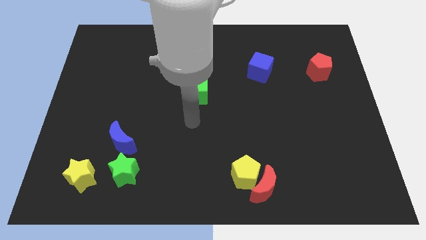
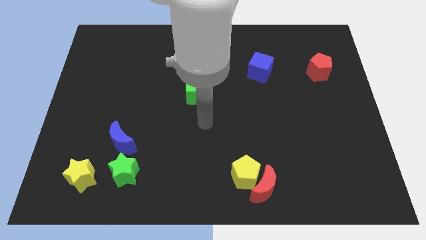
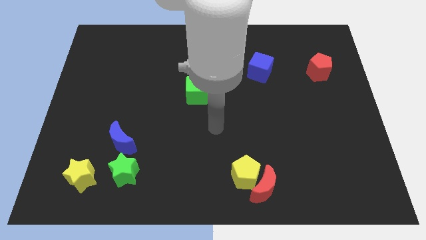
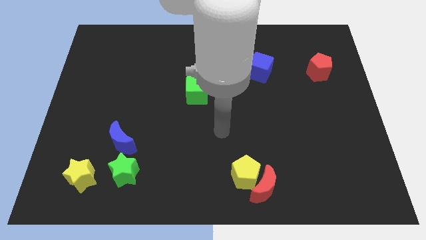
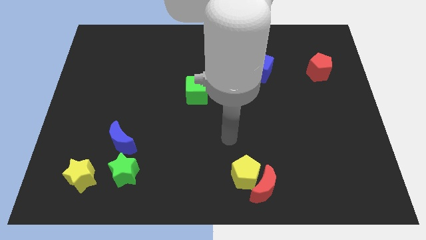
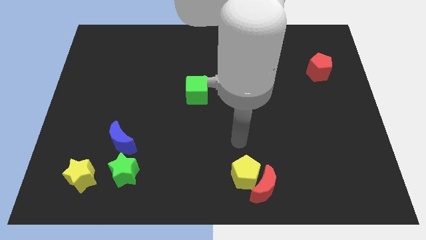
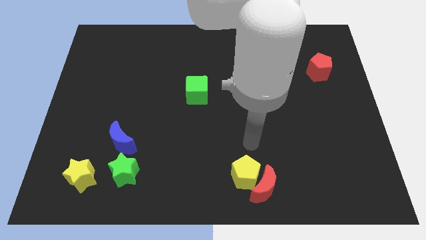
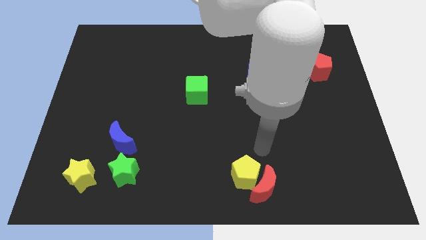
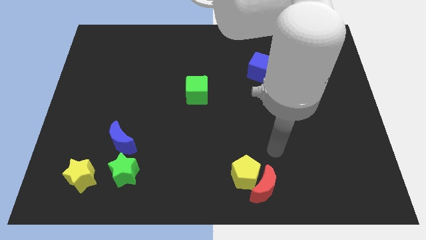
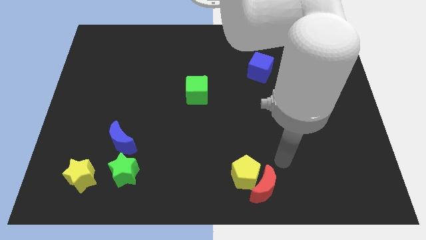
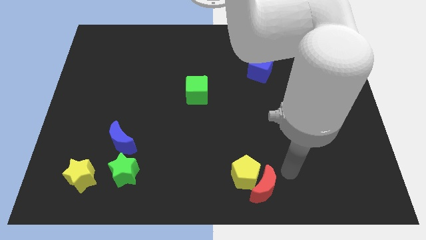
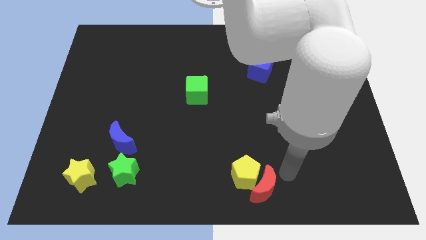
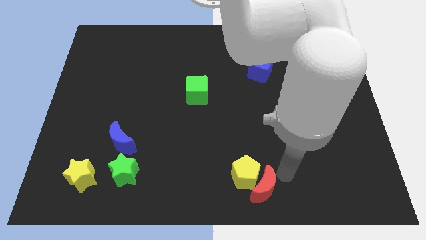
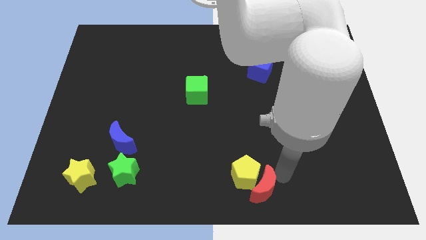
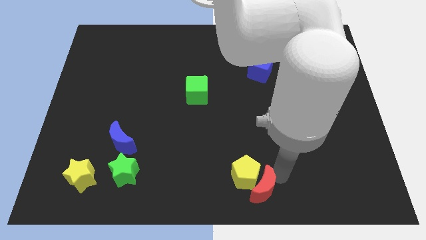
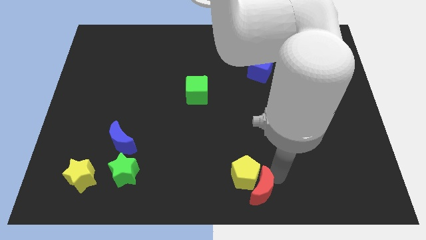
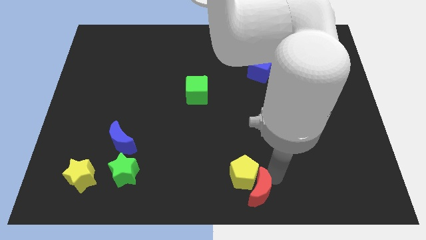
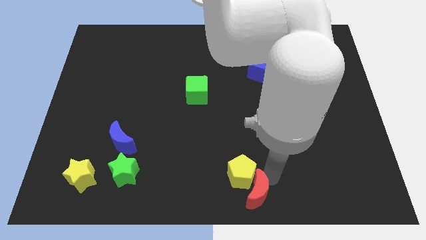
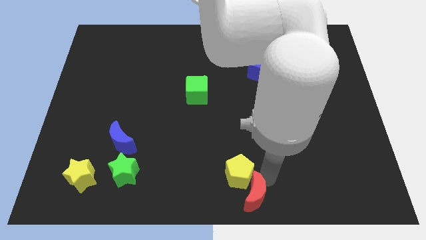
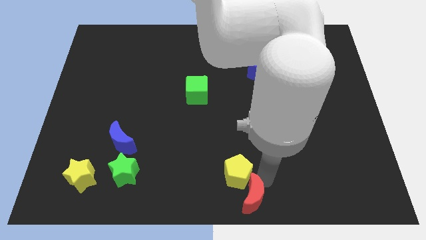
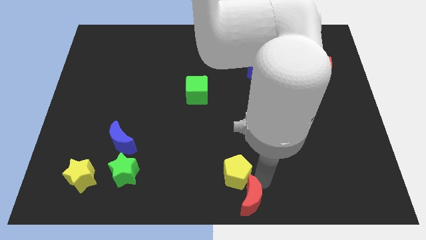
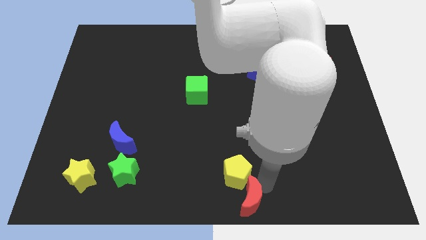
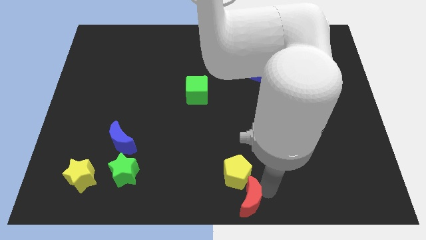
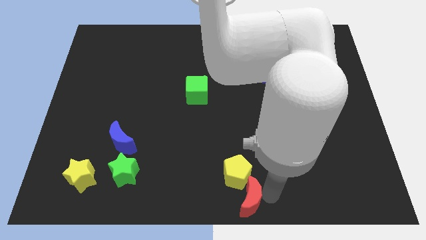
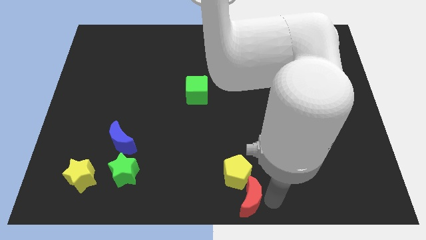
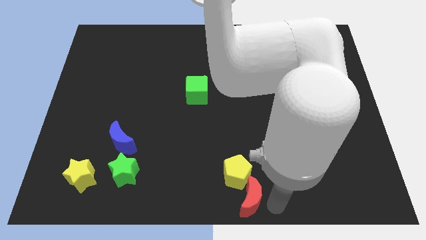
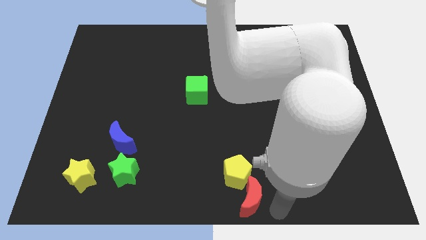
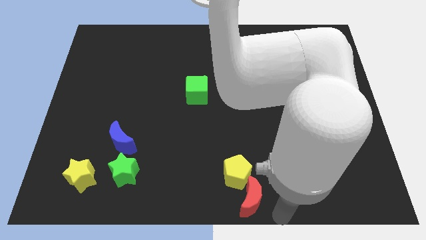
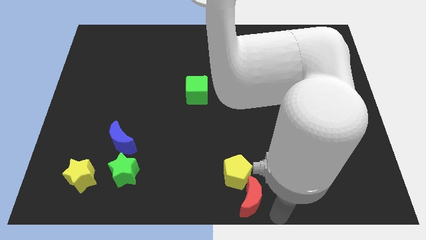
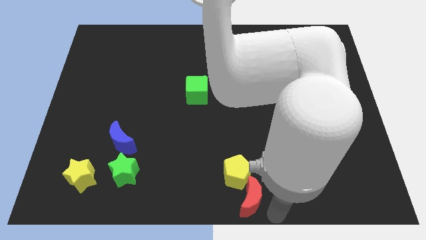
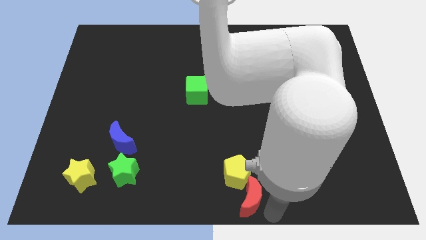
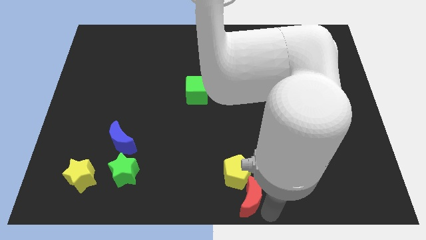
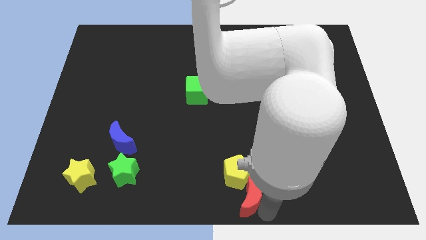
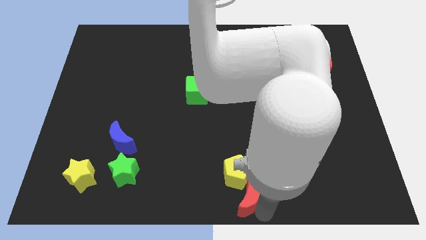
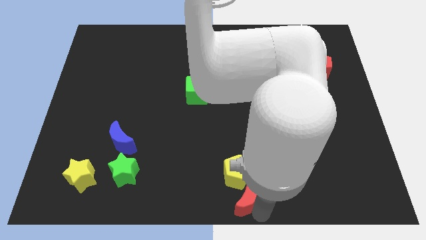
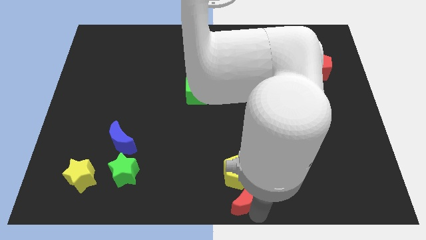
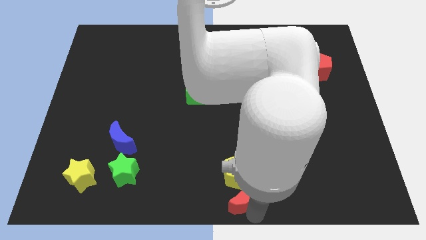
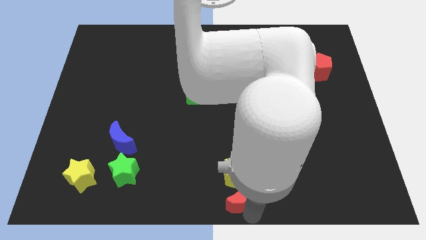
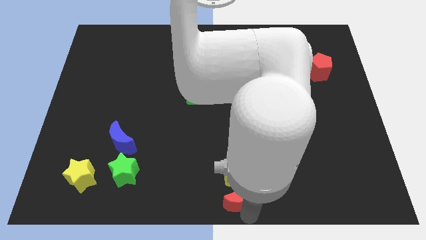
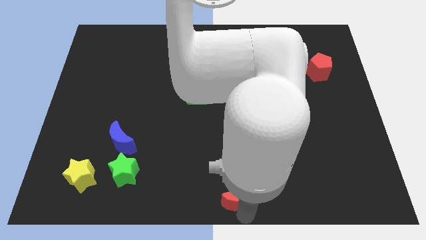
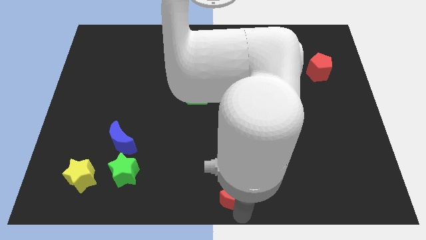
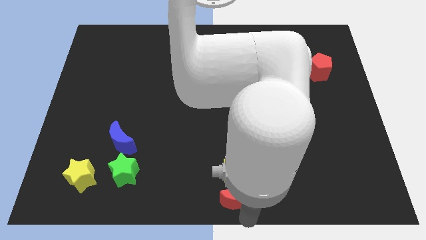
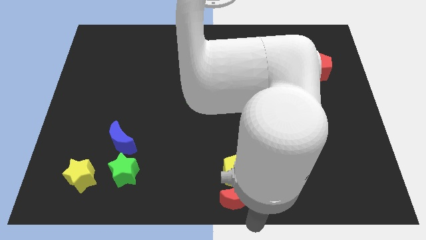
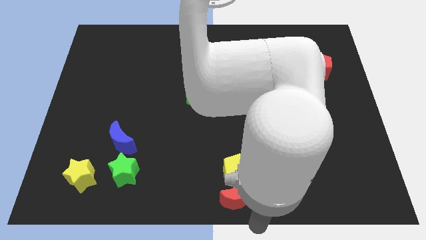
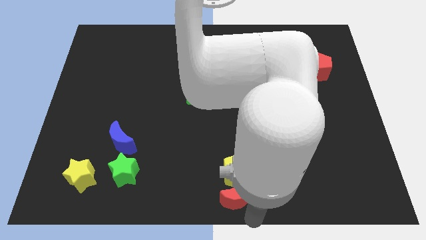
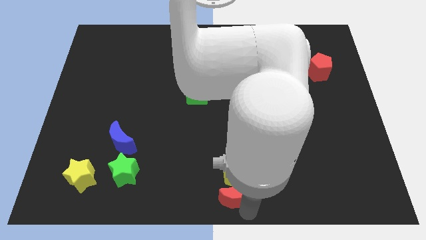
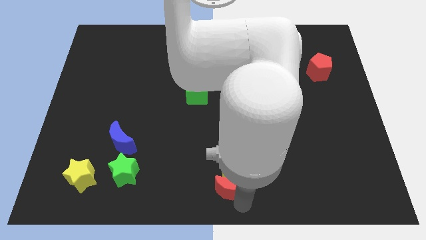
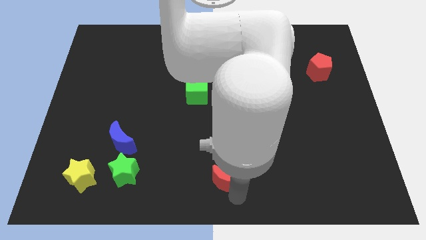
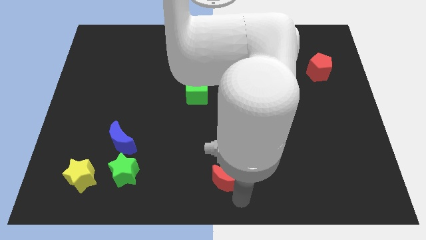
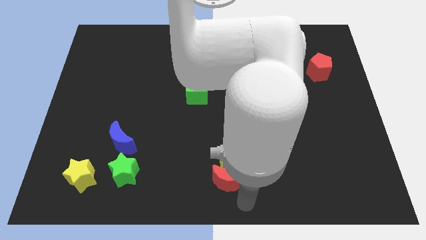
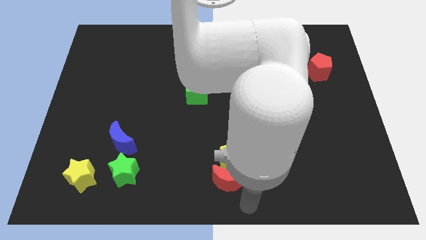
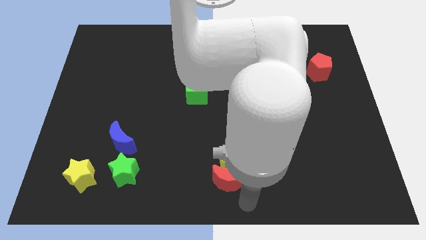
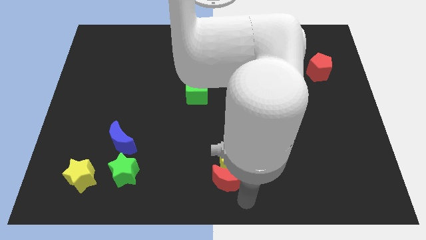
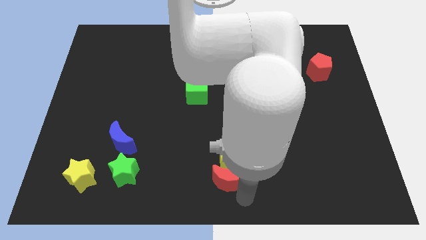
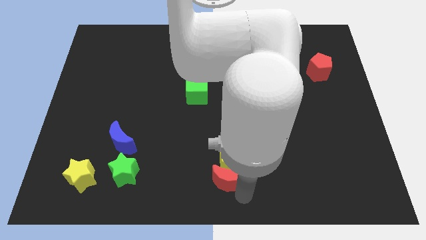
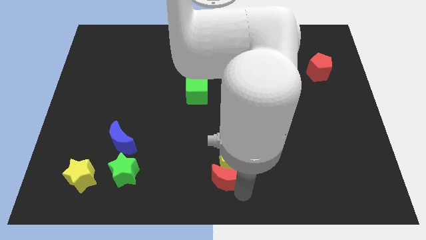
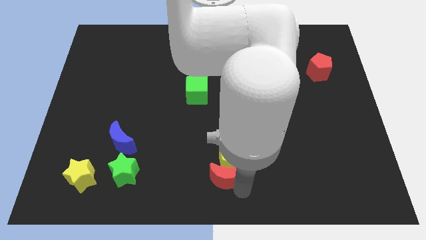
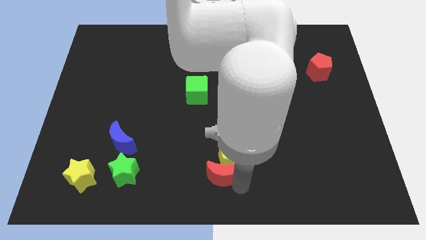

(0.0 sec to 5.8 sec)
slide the red moon upwards and left diagonally slightly

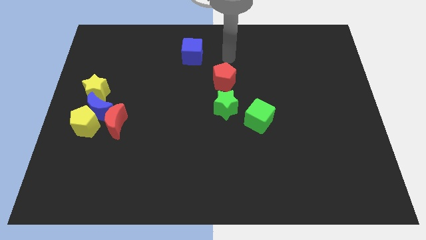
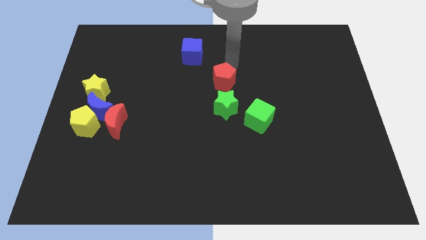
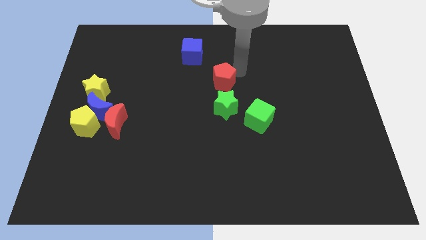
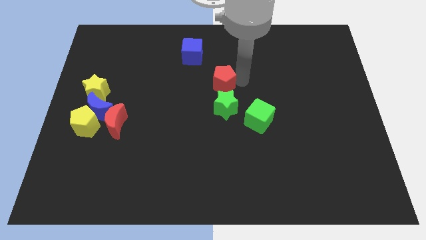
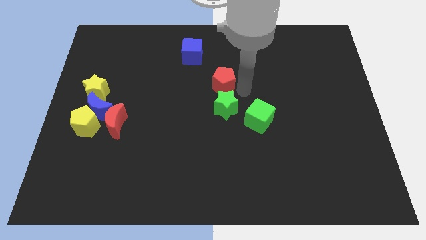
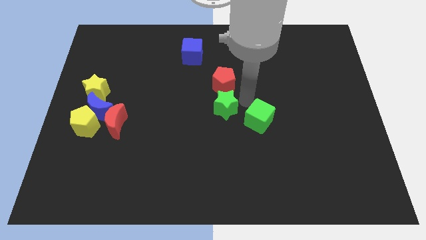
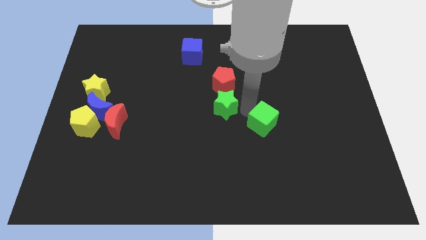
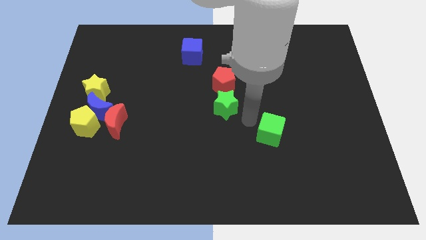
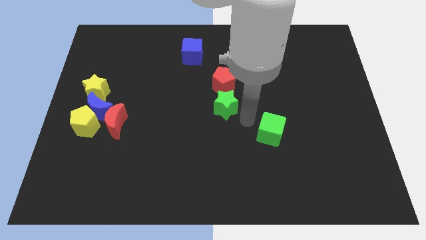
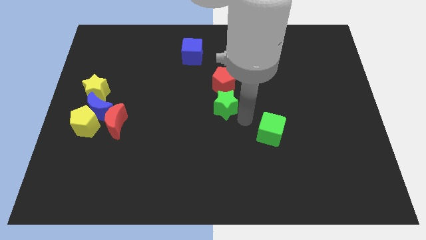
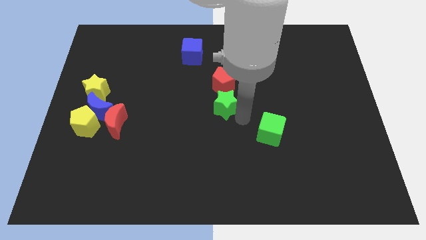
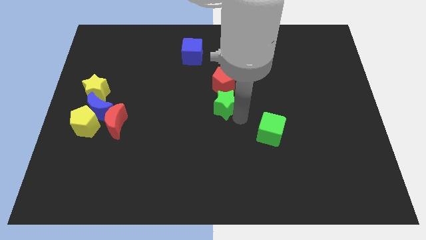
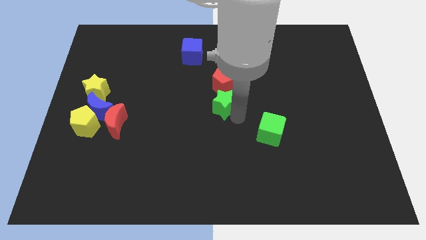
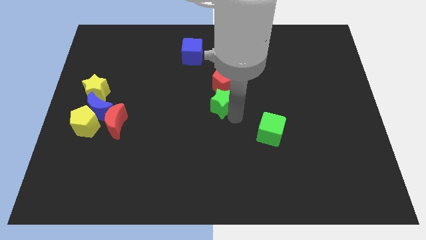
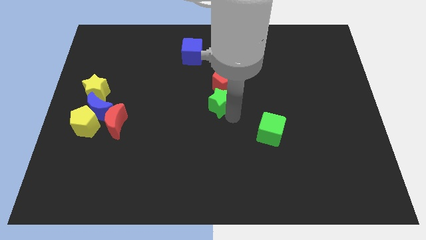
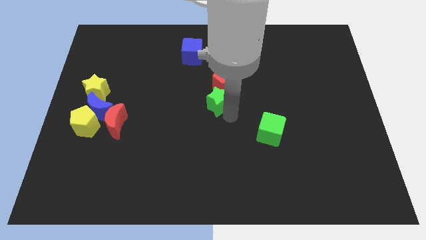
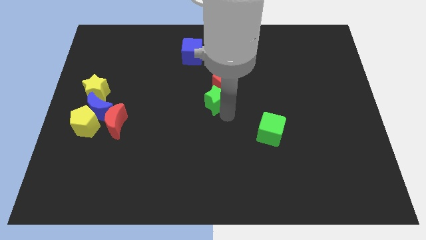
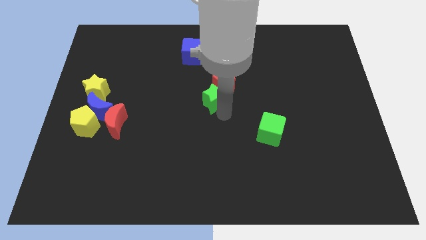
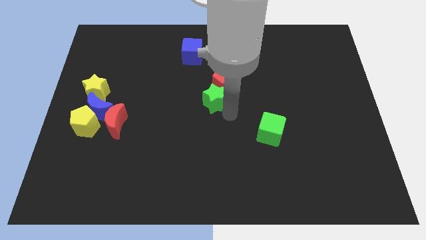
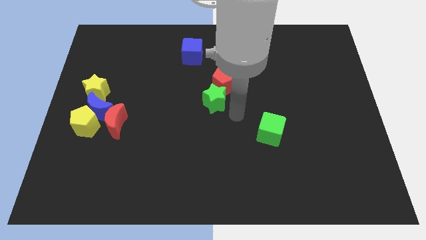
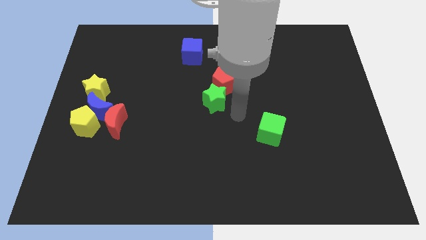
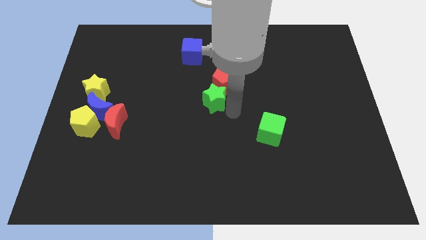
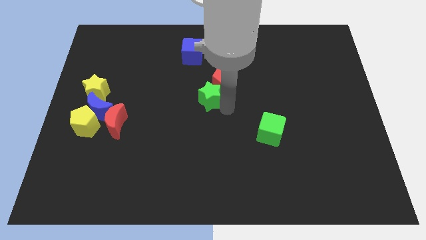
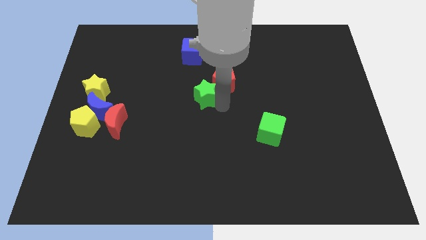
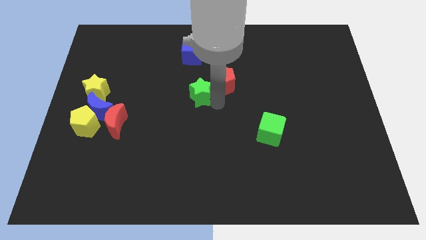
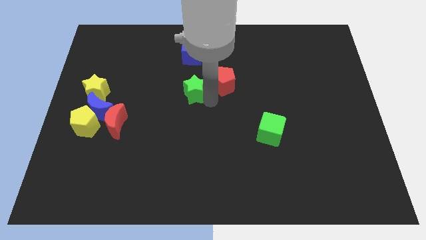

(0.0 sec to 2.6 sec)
push the green star diagonally up and to the left a little bit
